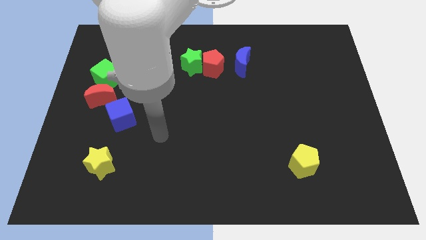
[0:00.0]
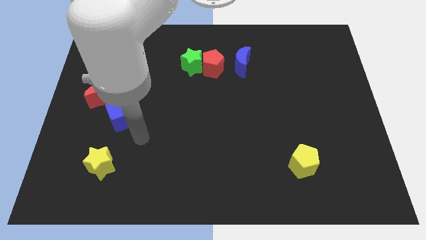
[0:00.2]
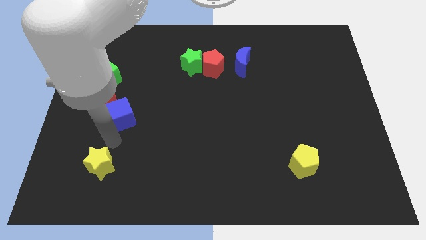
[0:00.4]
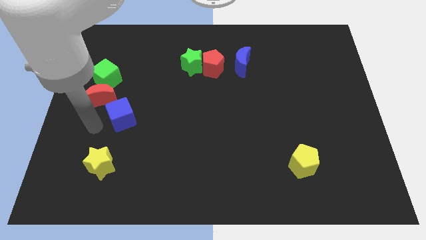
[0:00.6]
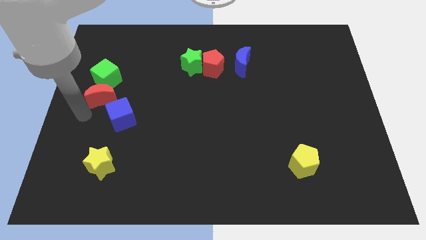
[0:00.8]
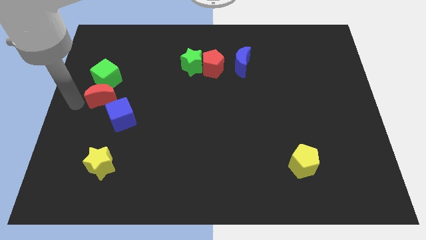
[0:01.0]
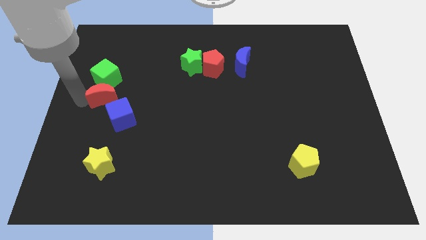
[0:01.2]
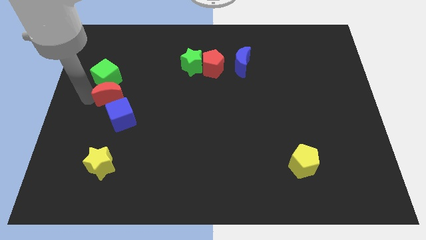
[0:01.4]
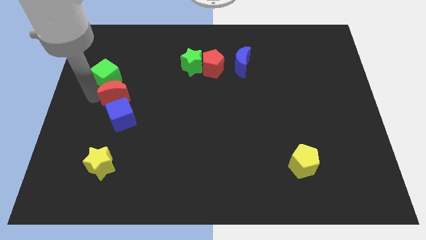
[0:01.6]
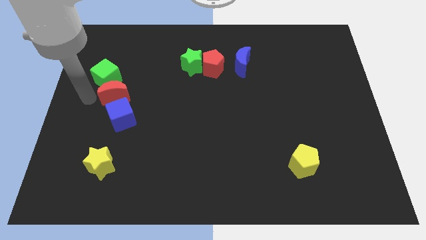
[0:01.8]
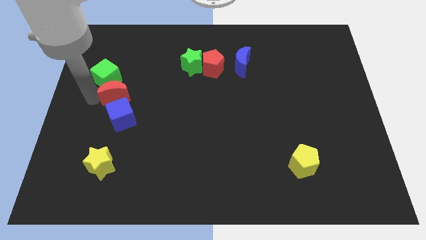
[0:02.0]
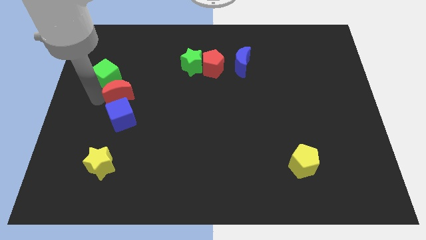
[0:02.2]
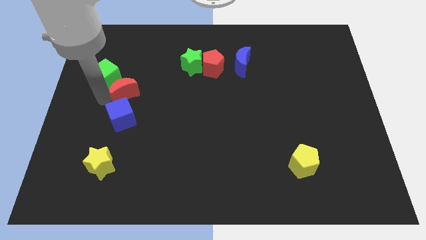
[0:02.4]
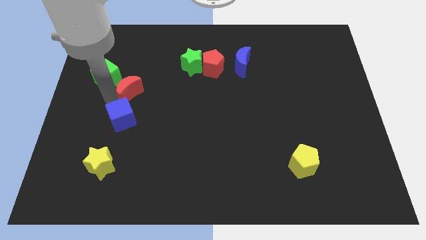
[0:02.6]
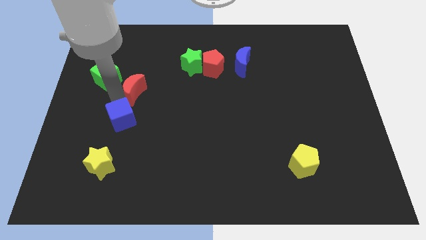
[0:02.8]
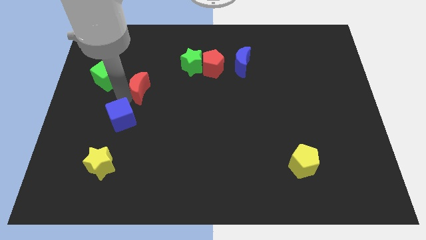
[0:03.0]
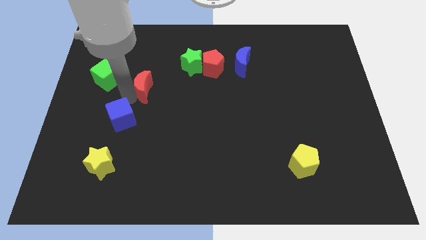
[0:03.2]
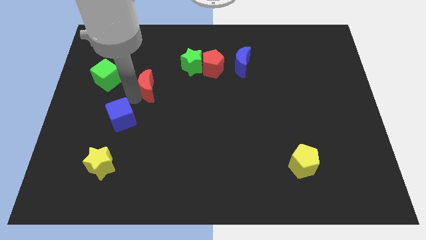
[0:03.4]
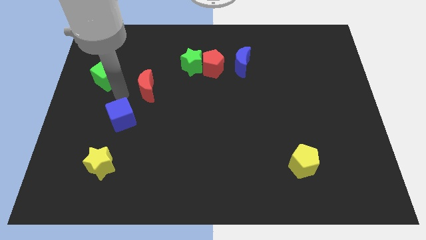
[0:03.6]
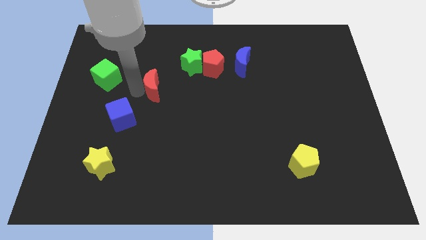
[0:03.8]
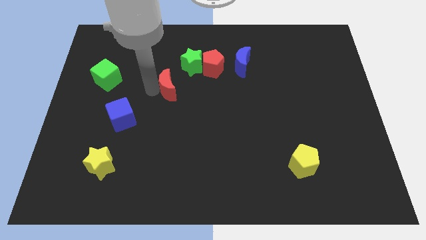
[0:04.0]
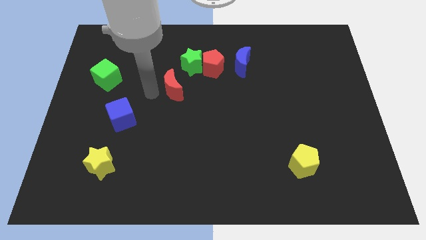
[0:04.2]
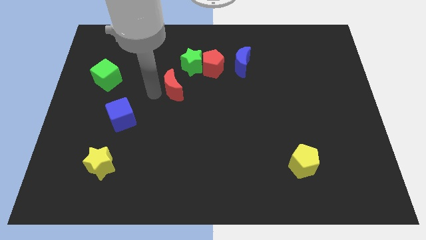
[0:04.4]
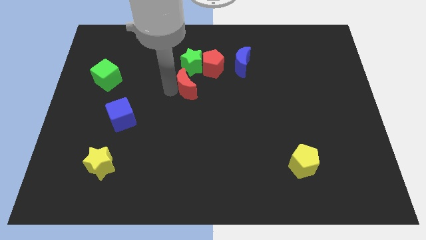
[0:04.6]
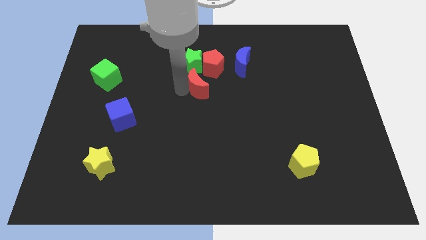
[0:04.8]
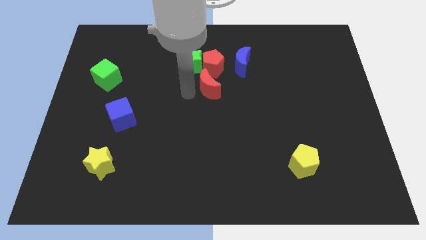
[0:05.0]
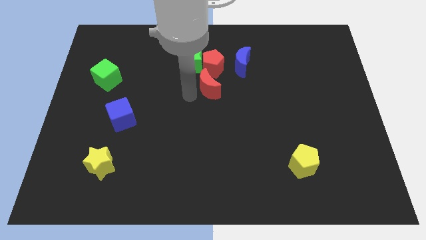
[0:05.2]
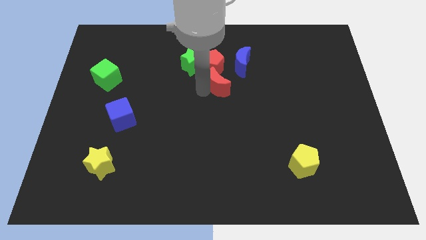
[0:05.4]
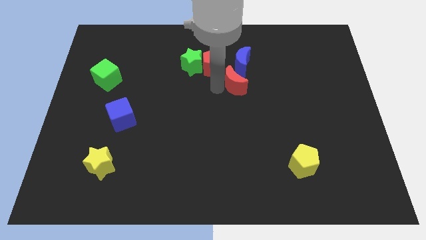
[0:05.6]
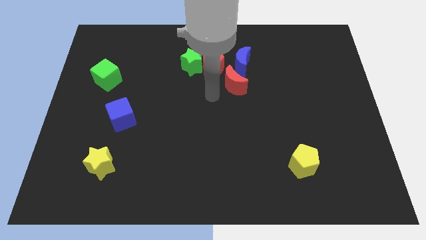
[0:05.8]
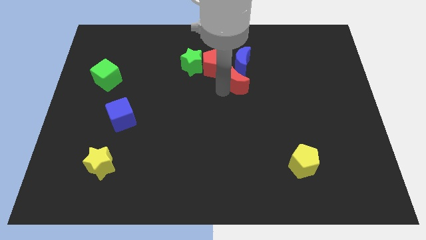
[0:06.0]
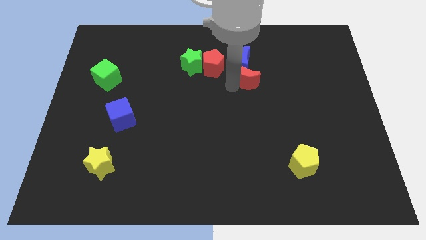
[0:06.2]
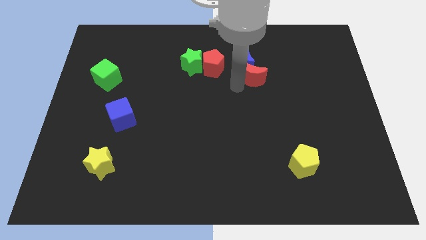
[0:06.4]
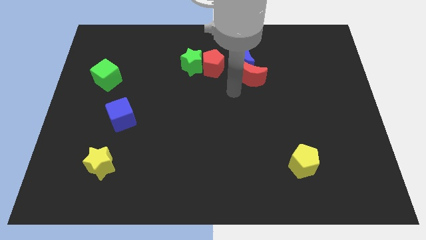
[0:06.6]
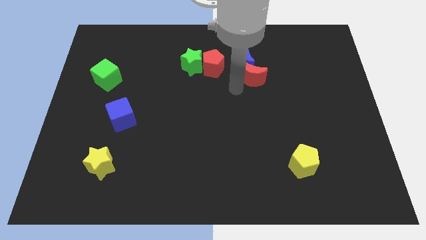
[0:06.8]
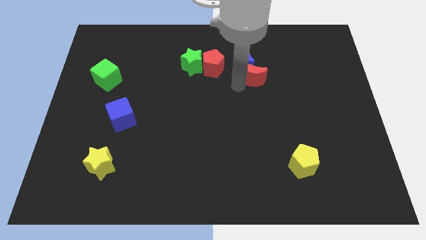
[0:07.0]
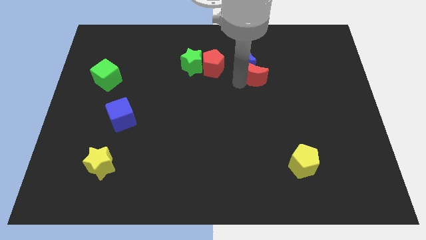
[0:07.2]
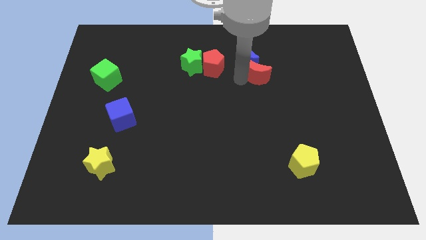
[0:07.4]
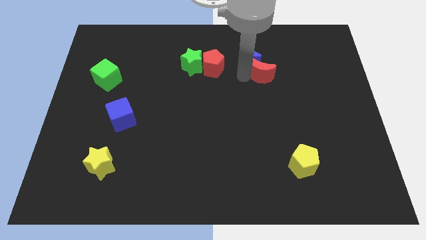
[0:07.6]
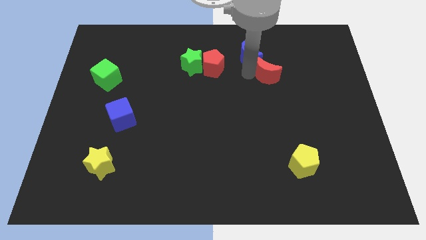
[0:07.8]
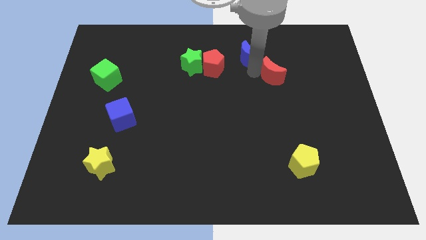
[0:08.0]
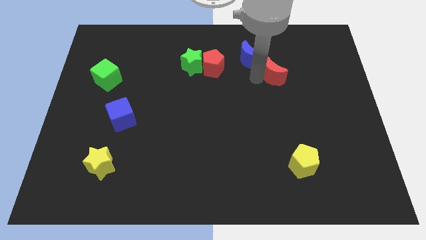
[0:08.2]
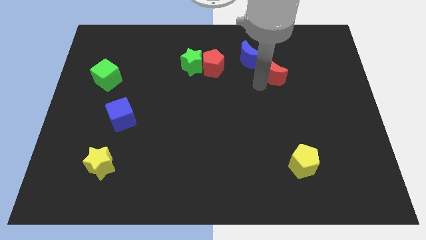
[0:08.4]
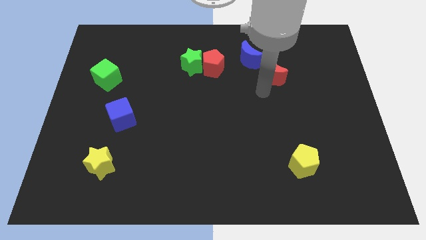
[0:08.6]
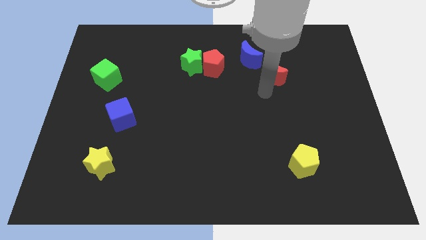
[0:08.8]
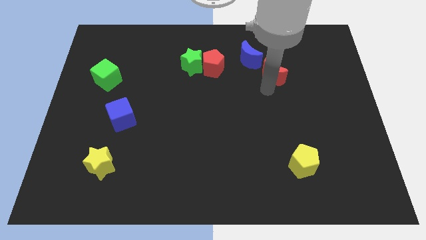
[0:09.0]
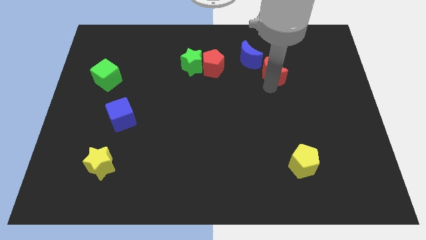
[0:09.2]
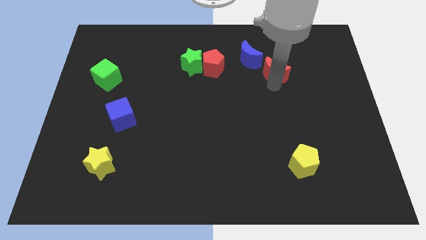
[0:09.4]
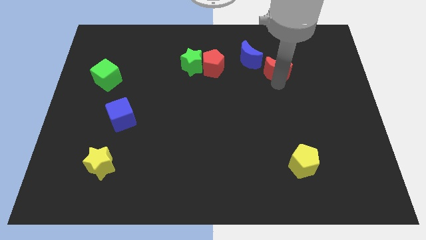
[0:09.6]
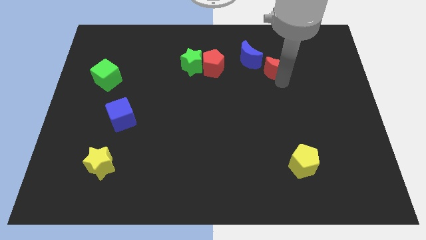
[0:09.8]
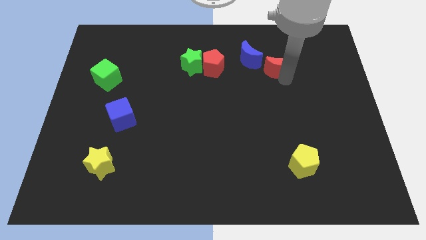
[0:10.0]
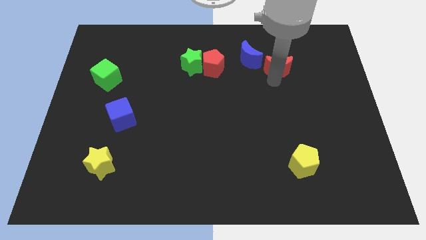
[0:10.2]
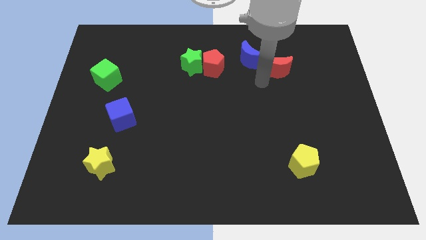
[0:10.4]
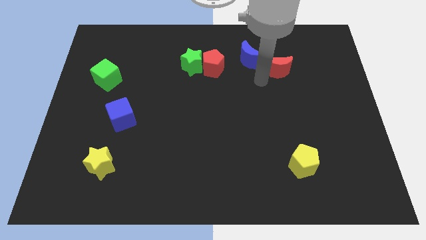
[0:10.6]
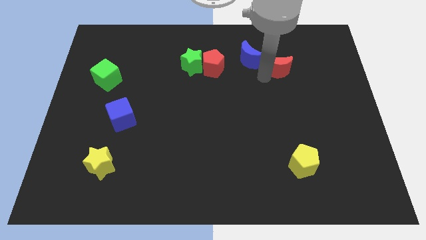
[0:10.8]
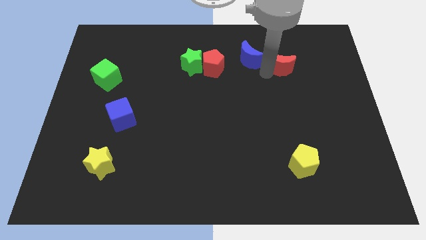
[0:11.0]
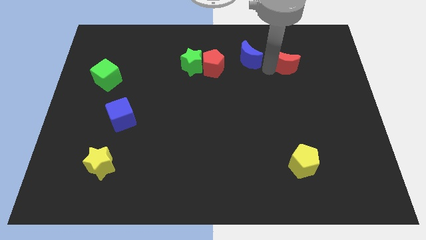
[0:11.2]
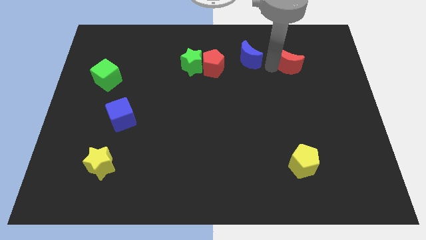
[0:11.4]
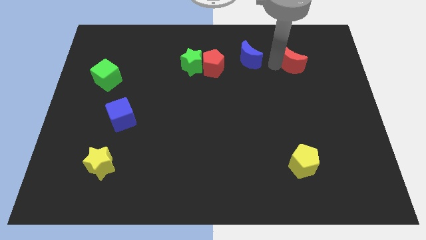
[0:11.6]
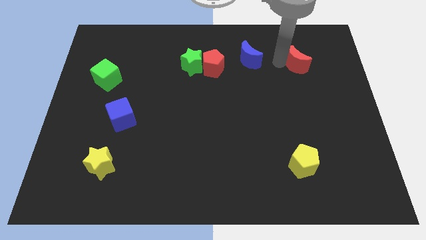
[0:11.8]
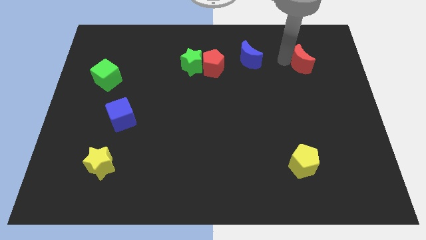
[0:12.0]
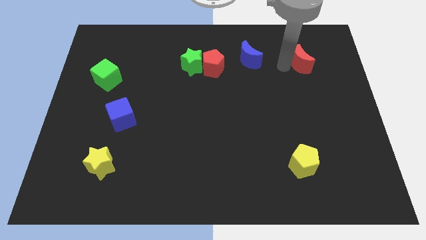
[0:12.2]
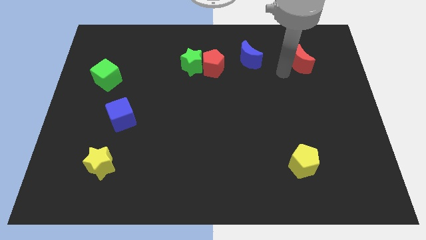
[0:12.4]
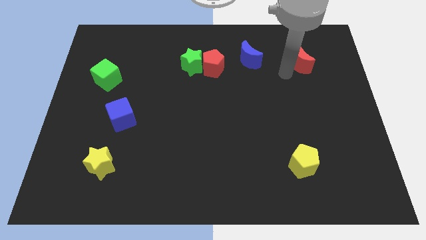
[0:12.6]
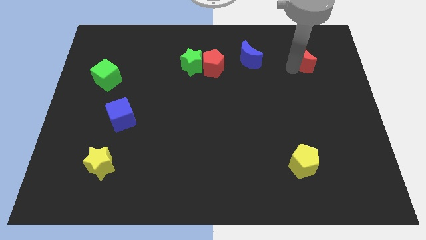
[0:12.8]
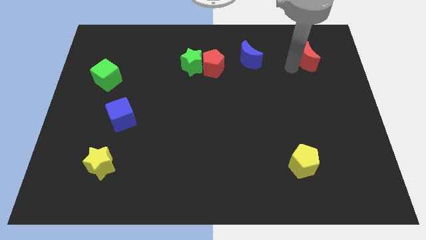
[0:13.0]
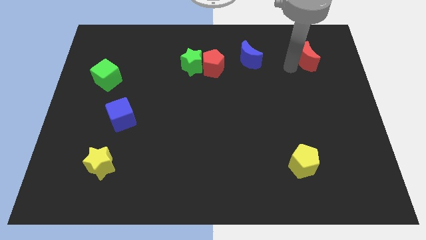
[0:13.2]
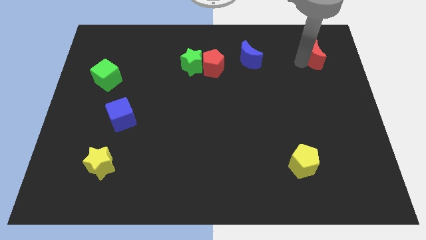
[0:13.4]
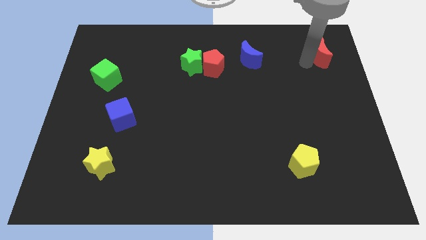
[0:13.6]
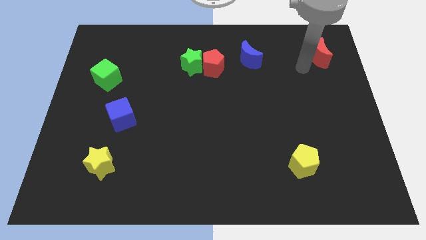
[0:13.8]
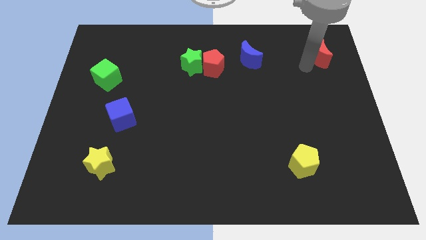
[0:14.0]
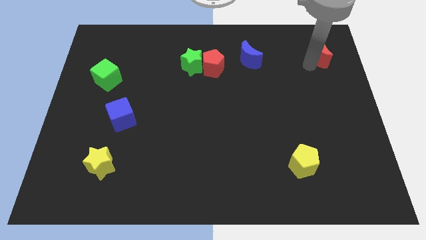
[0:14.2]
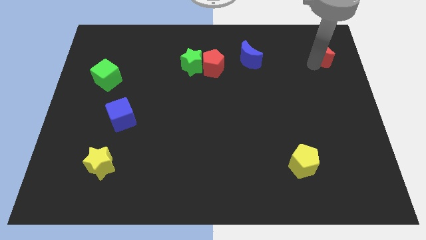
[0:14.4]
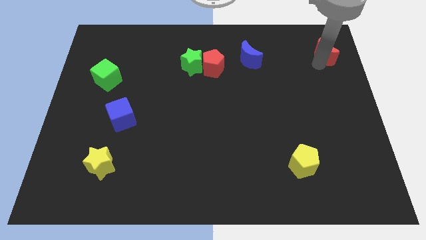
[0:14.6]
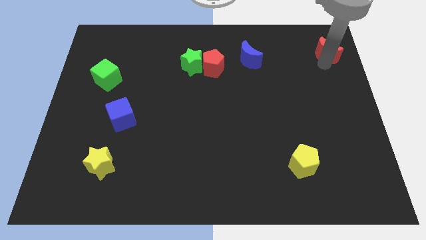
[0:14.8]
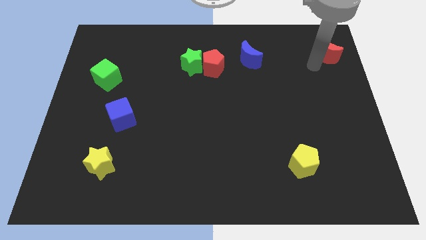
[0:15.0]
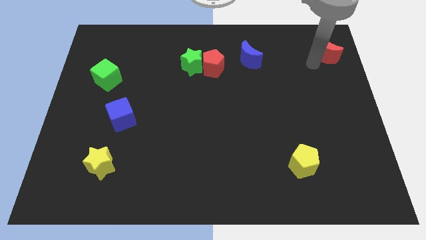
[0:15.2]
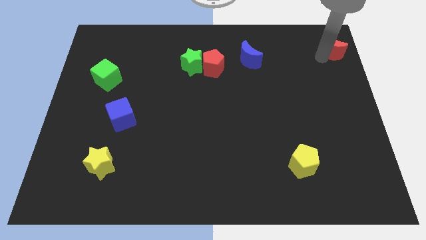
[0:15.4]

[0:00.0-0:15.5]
slide the red moon to the upper right corner
